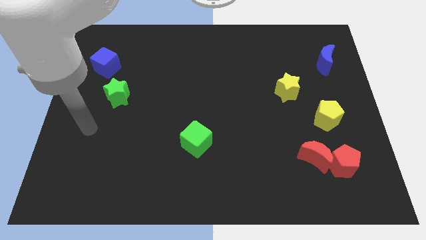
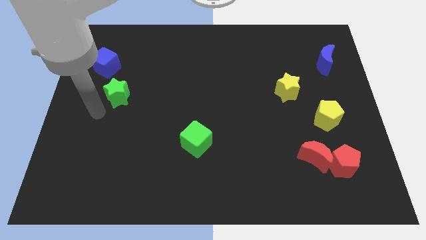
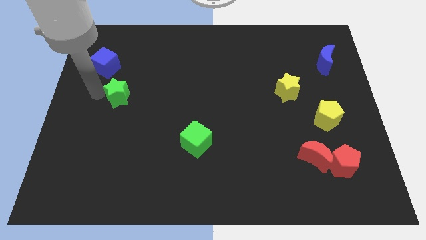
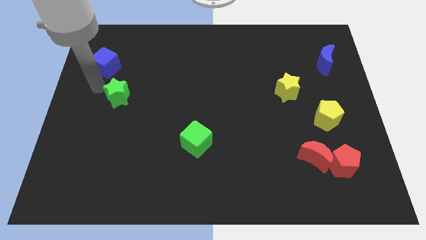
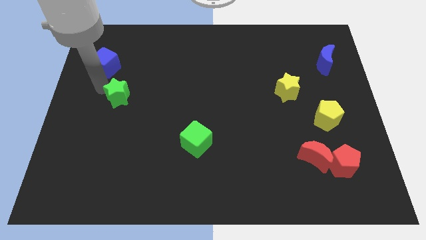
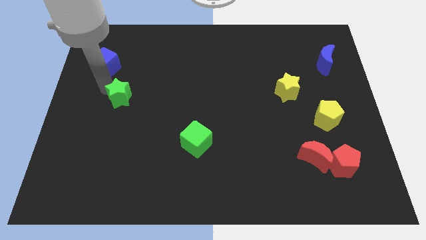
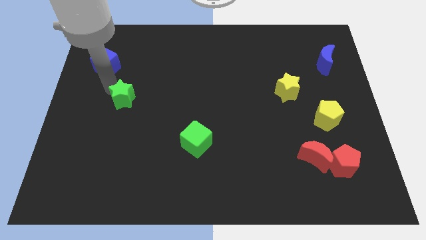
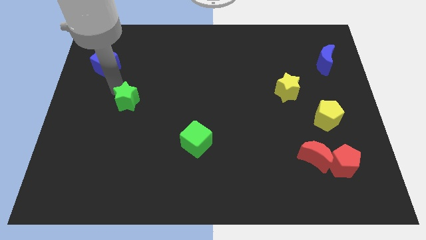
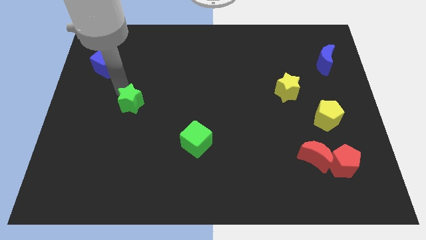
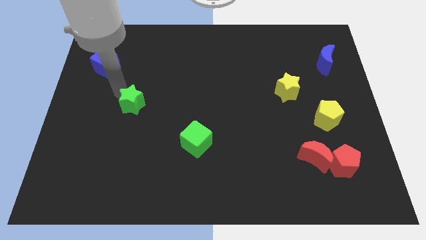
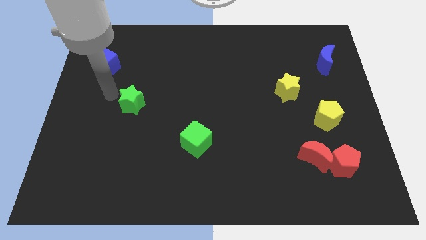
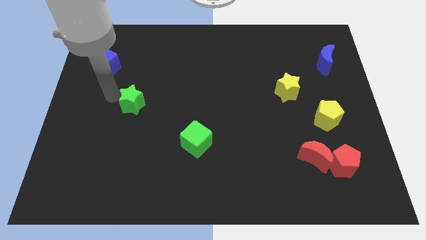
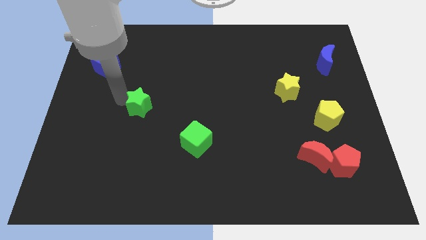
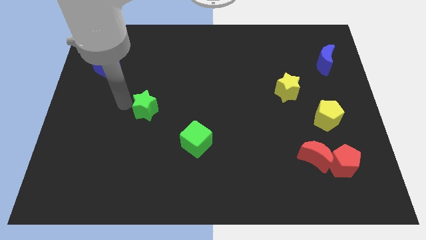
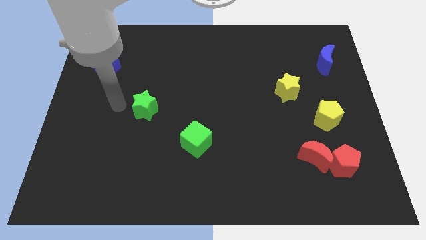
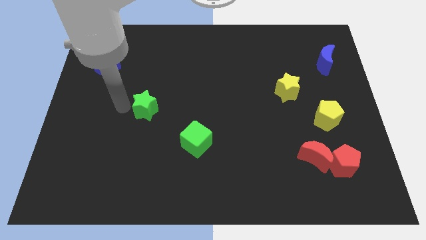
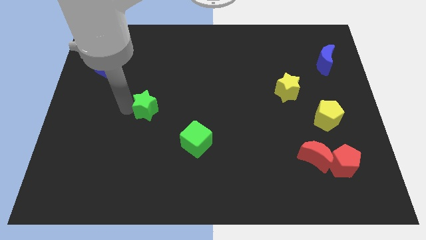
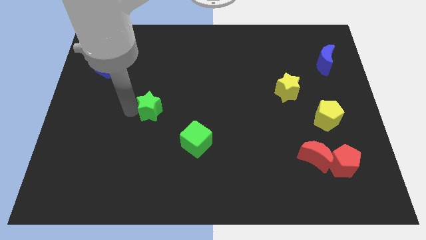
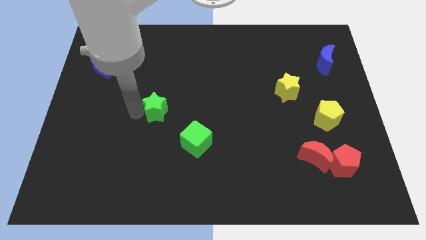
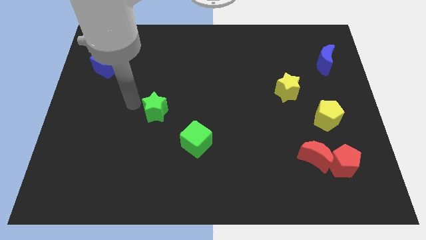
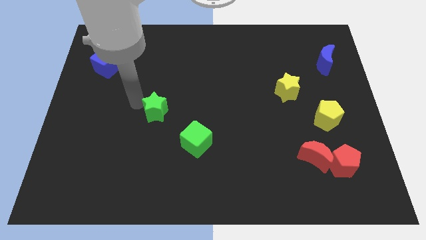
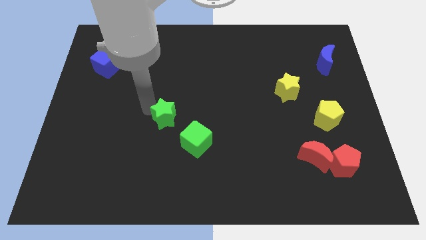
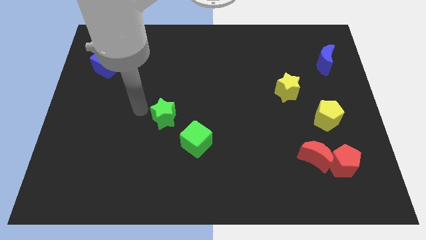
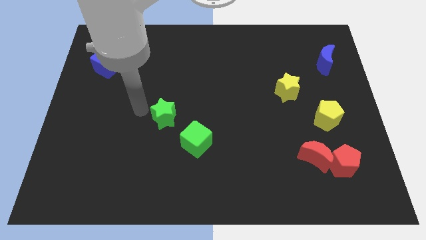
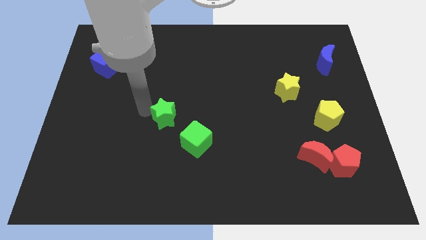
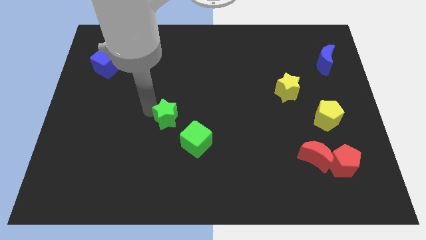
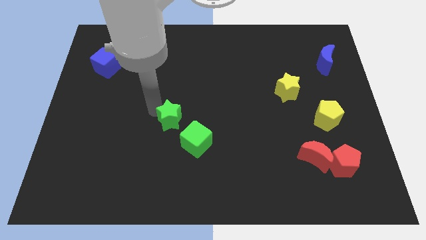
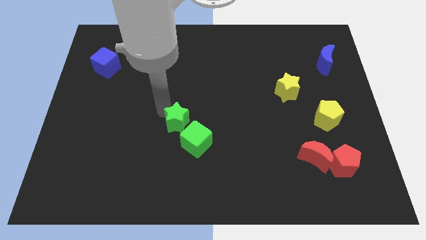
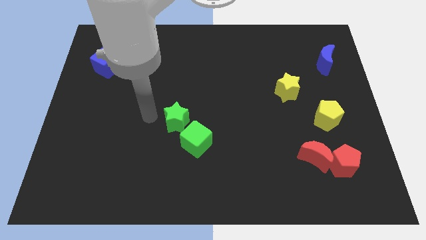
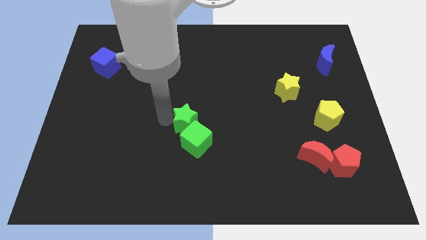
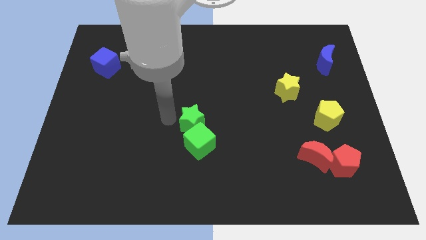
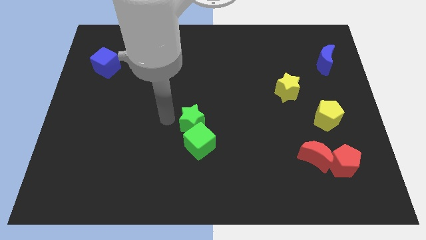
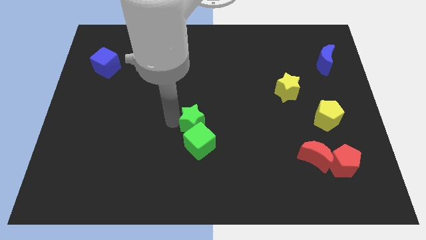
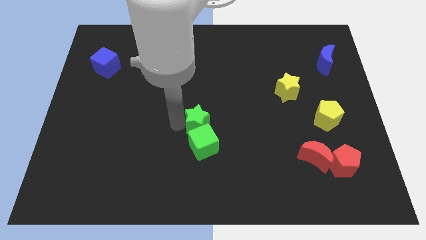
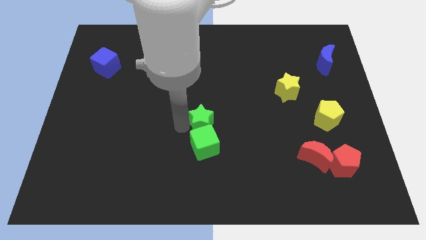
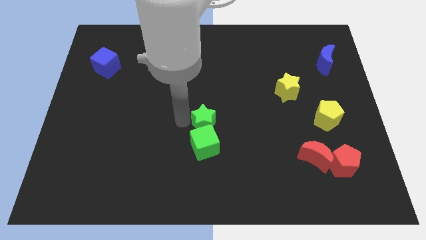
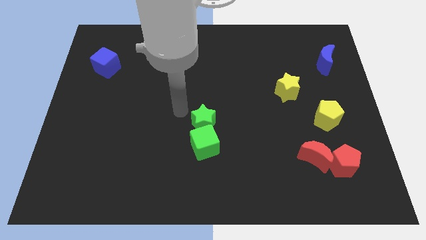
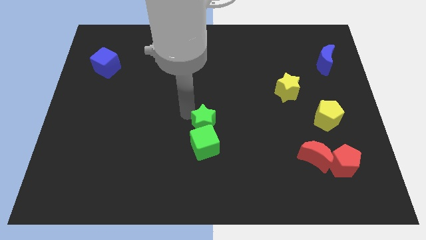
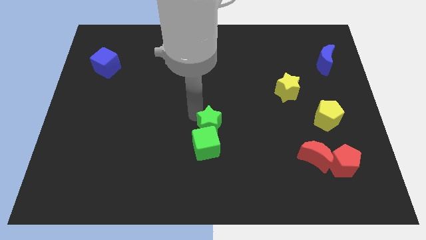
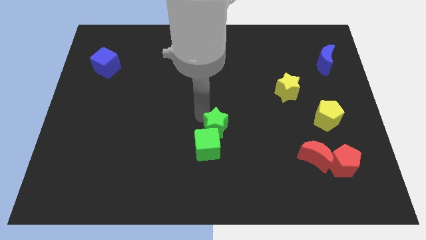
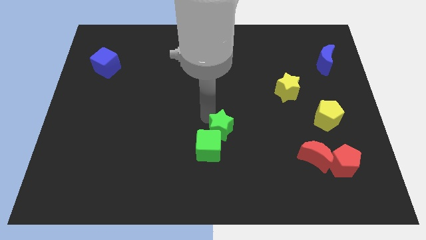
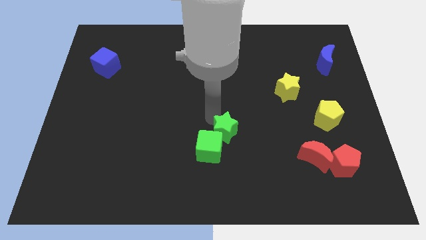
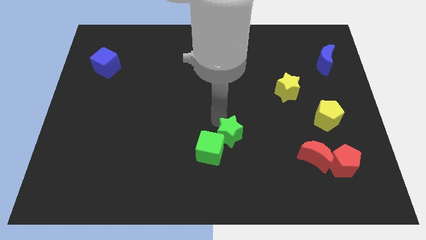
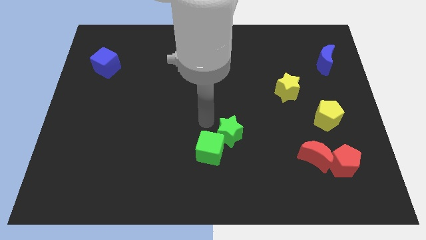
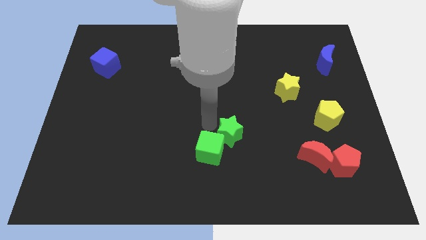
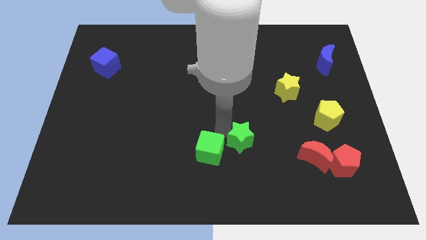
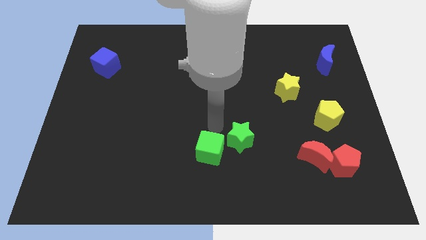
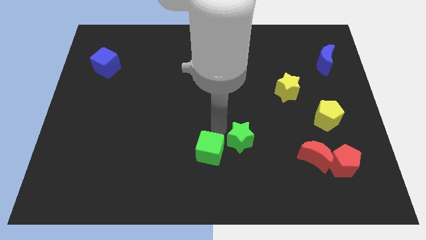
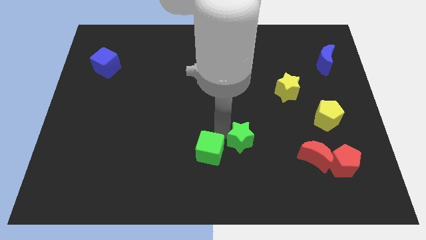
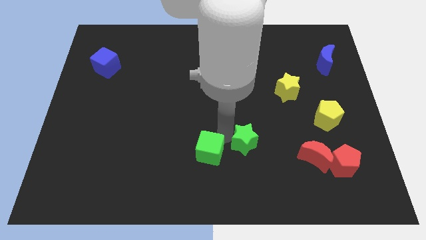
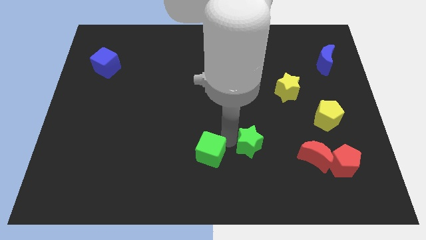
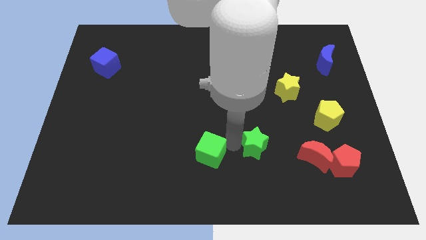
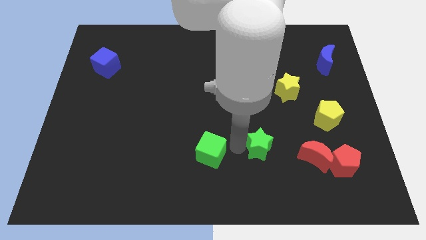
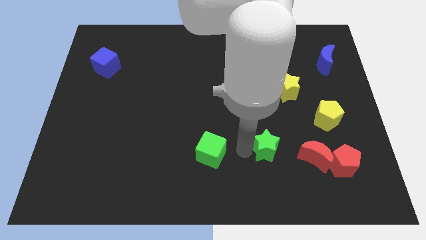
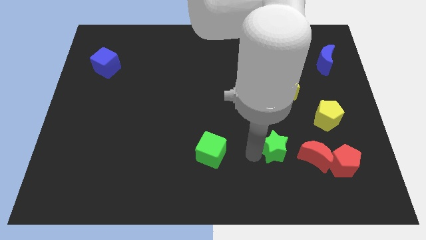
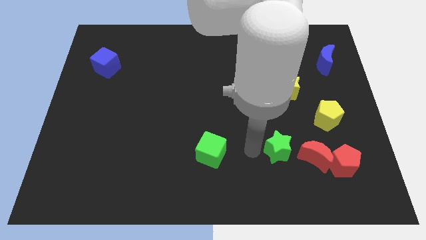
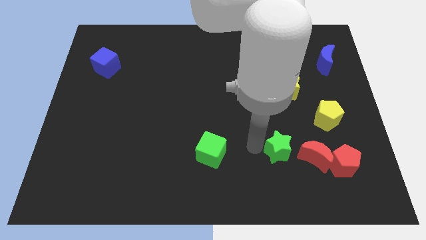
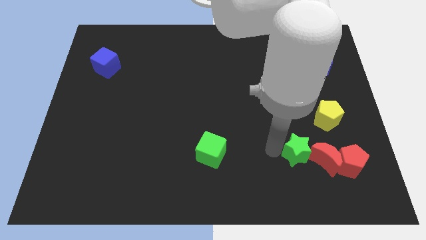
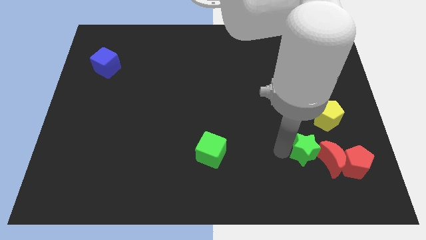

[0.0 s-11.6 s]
slide the green star close to the red moon

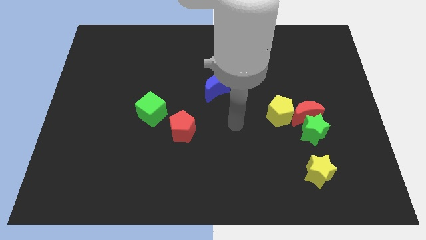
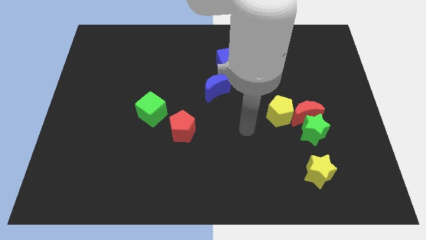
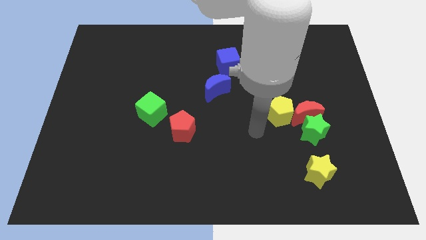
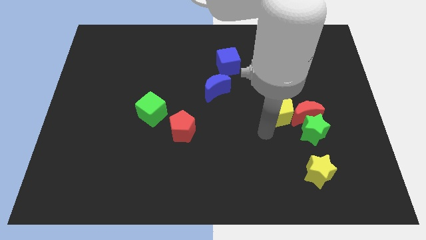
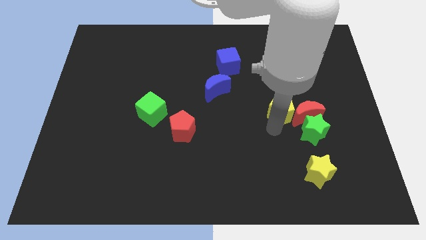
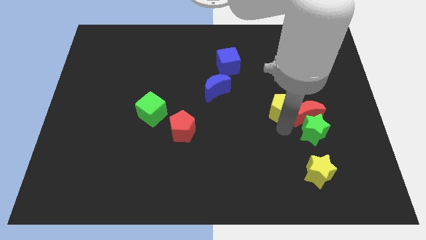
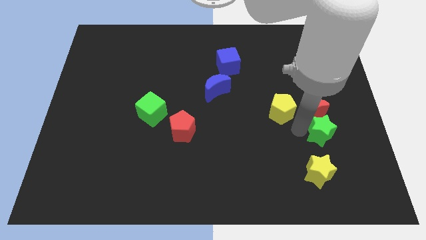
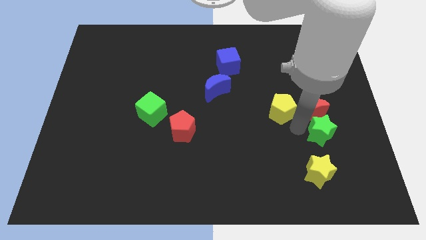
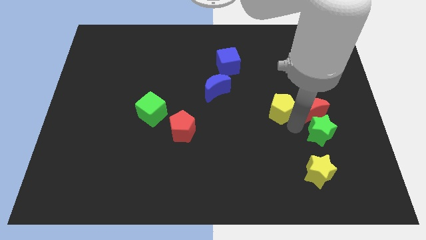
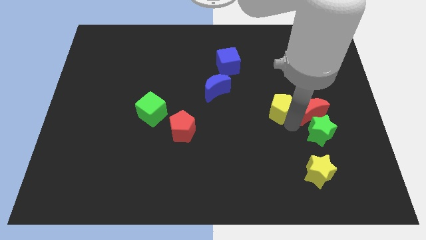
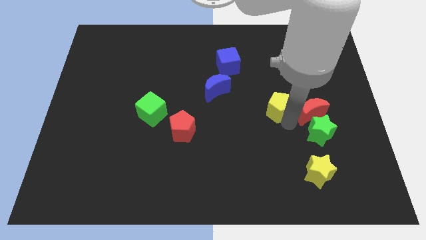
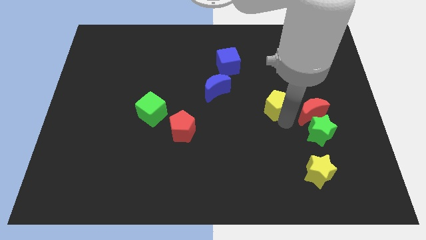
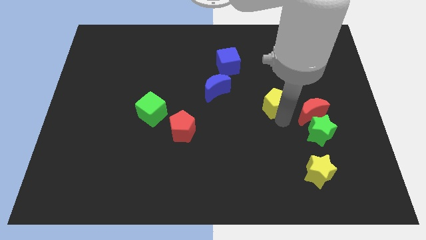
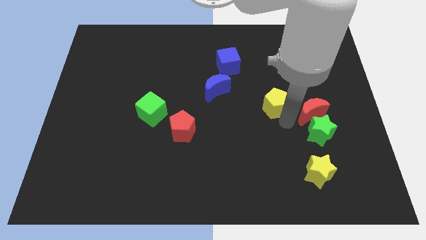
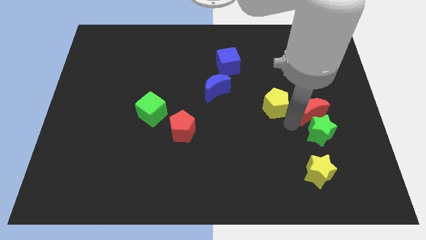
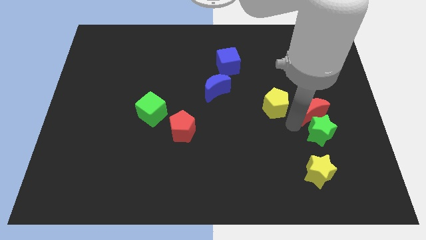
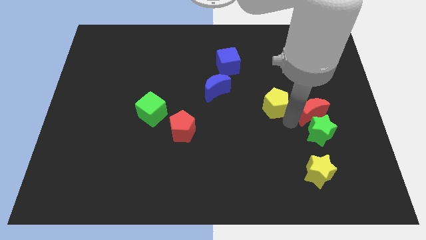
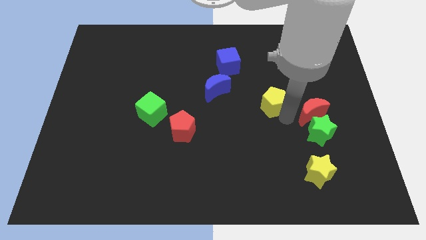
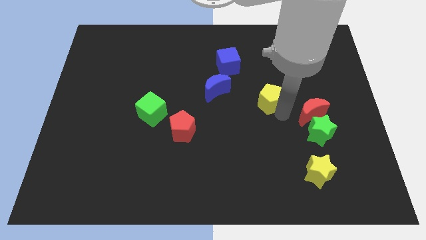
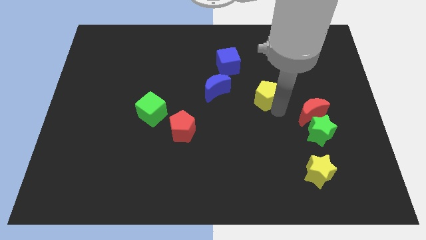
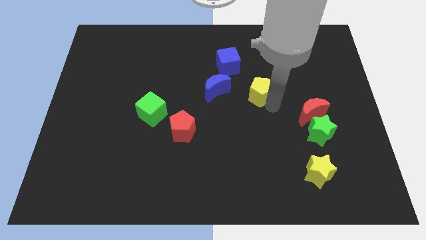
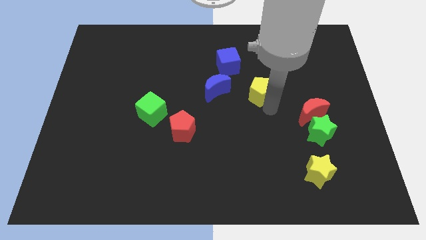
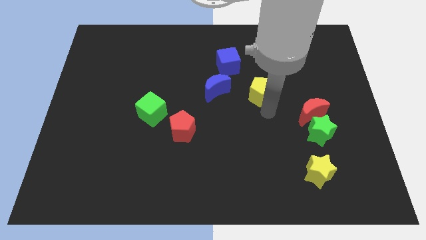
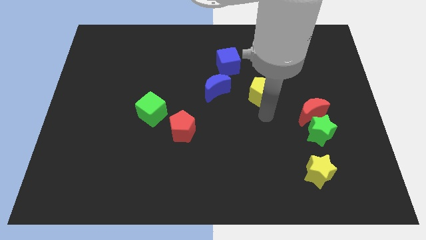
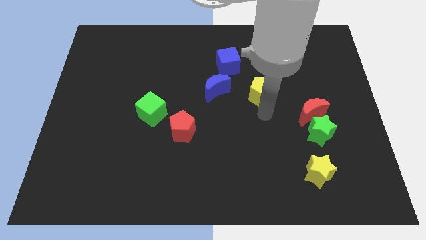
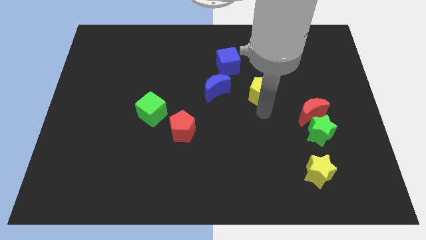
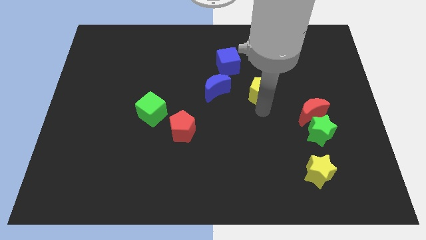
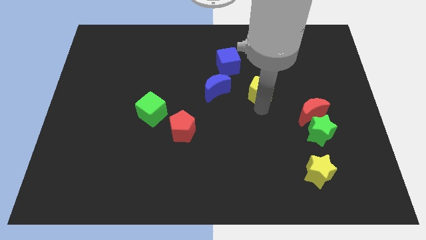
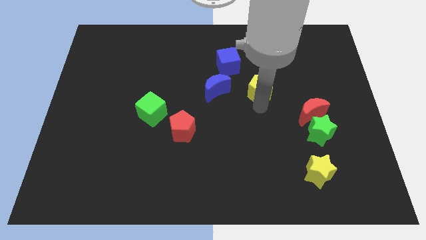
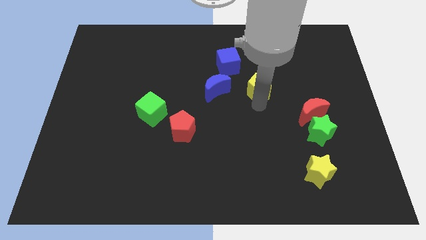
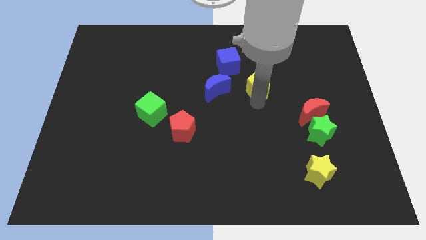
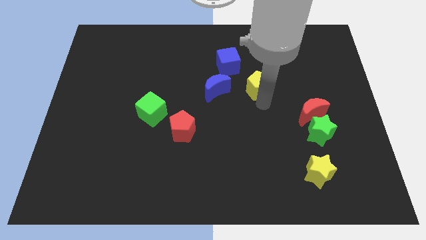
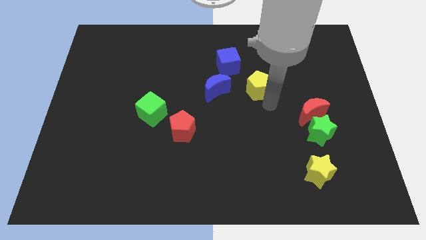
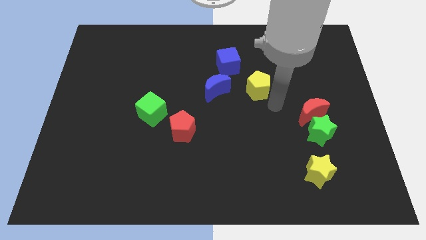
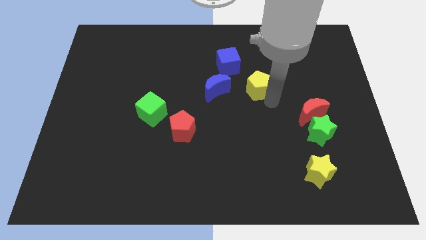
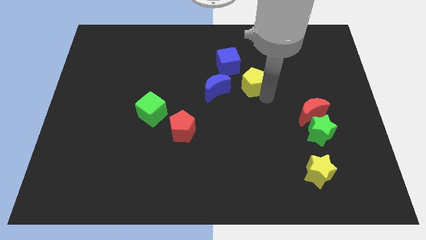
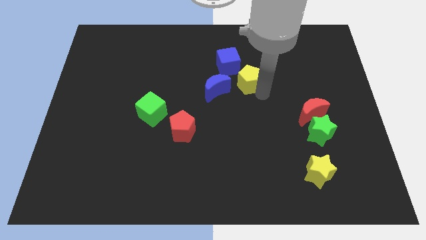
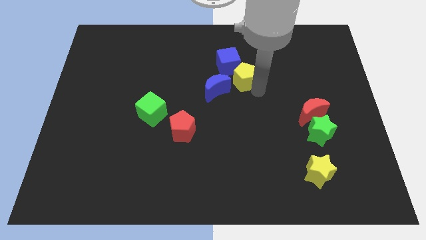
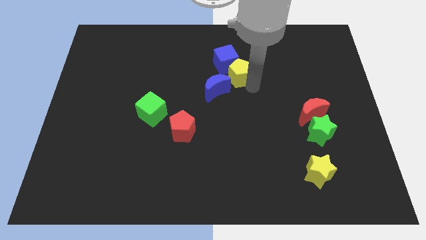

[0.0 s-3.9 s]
put the yellow pentagon towards the blue cube
